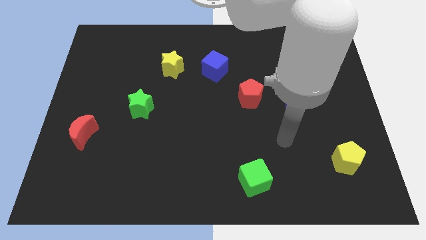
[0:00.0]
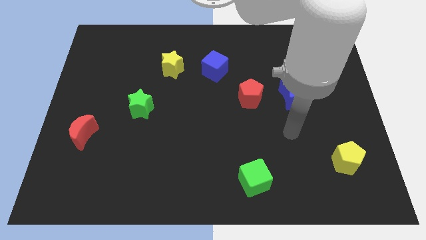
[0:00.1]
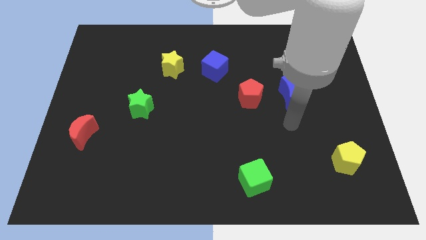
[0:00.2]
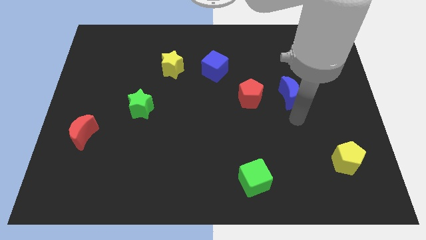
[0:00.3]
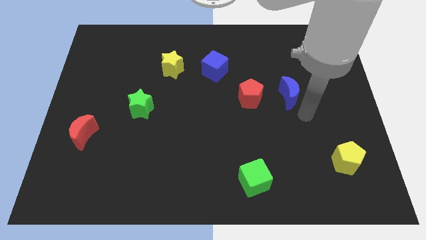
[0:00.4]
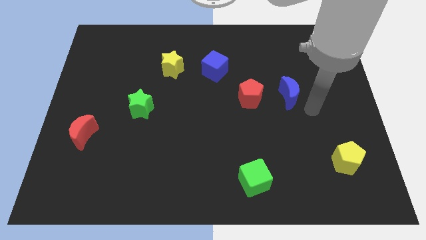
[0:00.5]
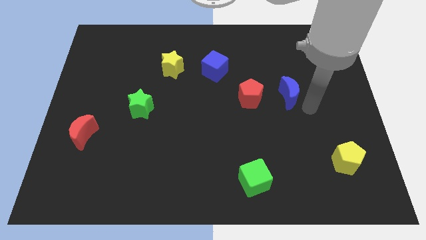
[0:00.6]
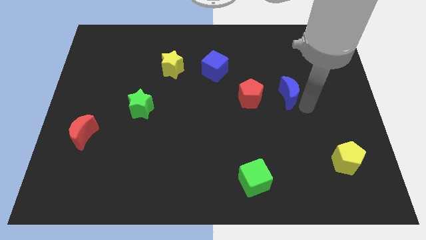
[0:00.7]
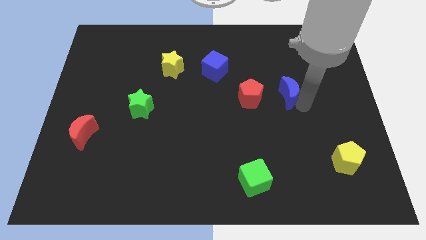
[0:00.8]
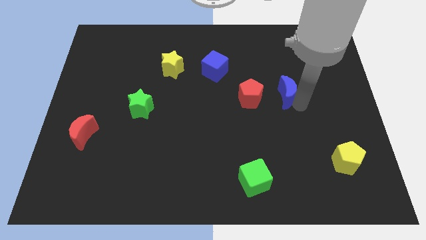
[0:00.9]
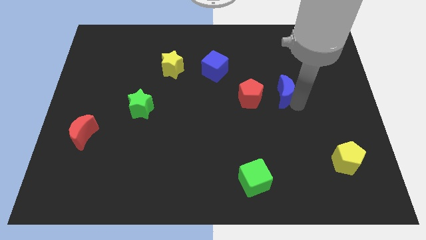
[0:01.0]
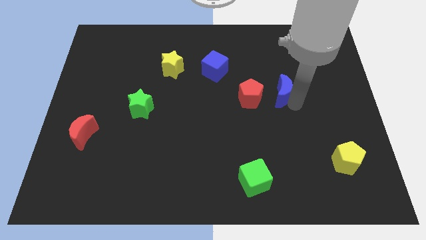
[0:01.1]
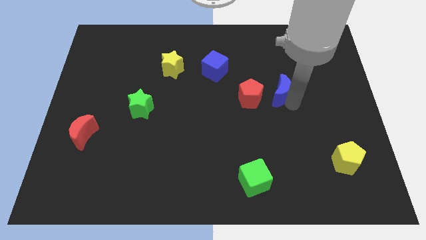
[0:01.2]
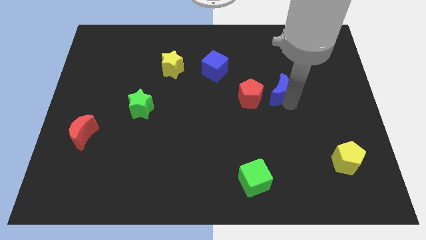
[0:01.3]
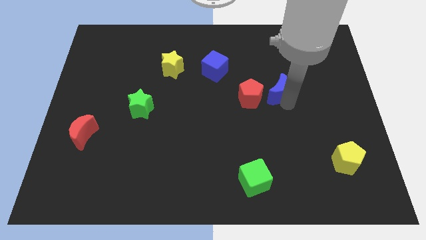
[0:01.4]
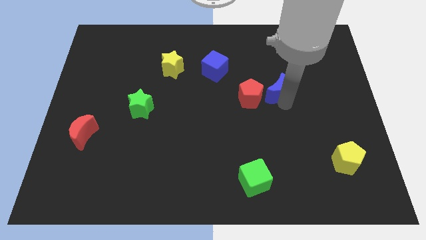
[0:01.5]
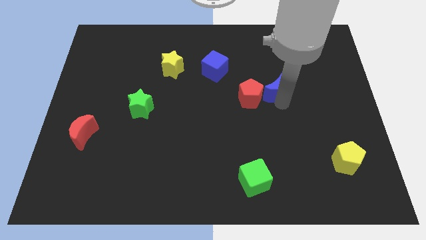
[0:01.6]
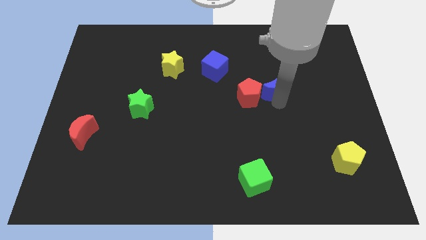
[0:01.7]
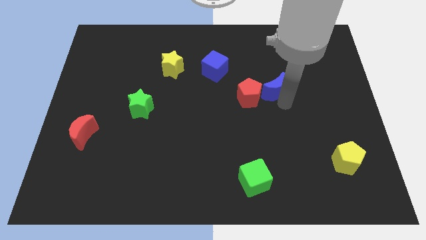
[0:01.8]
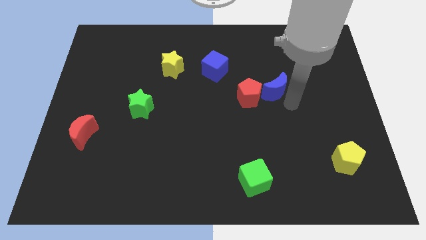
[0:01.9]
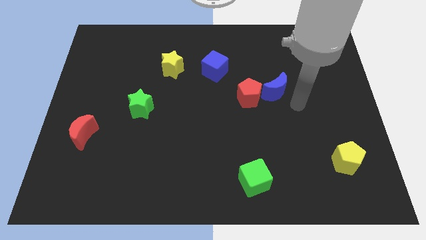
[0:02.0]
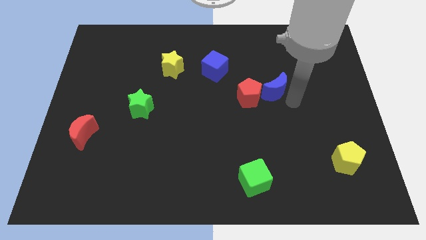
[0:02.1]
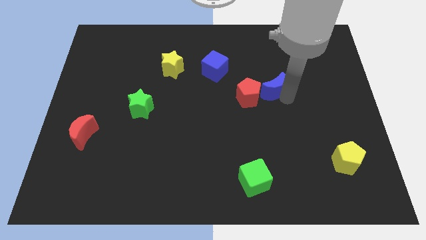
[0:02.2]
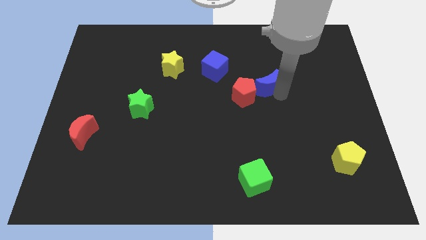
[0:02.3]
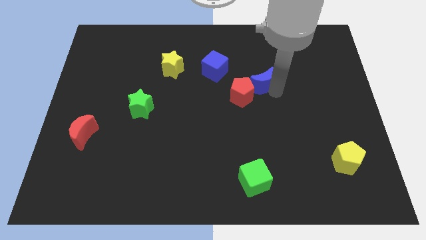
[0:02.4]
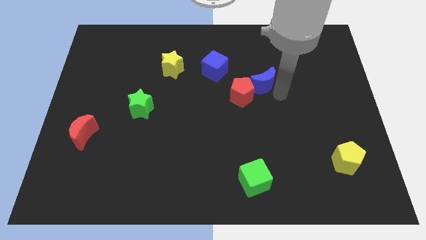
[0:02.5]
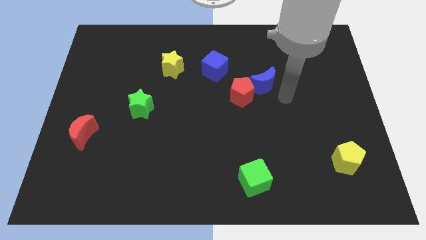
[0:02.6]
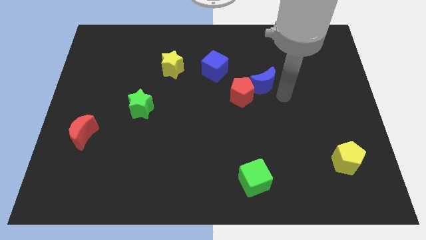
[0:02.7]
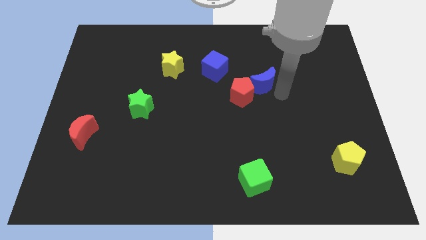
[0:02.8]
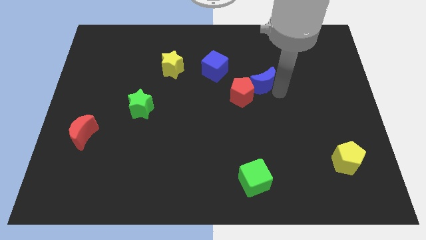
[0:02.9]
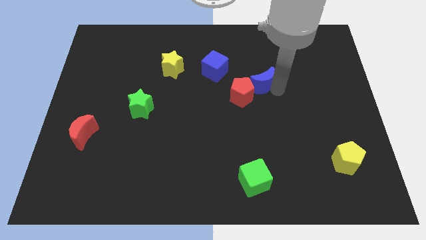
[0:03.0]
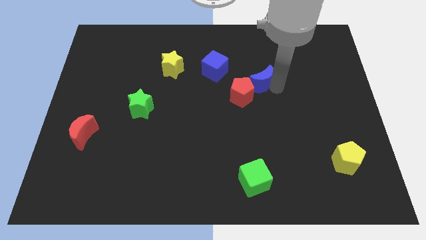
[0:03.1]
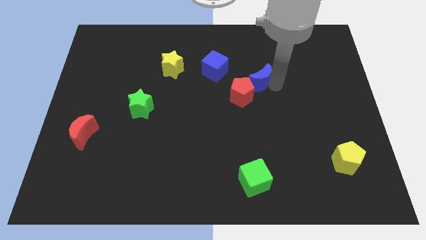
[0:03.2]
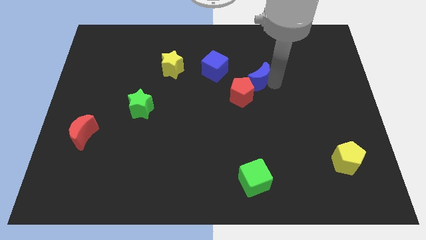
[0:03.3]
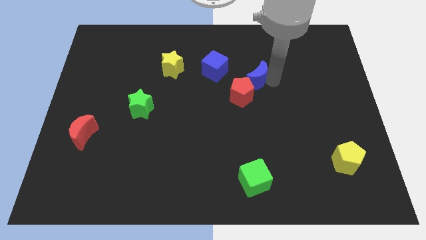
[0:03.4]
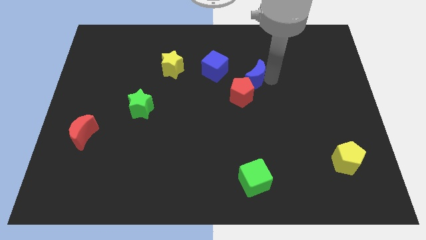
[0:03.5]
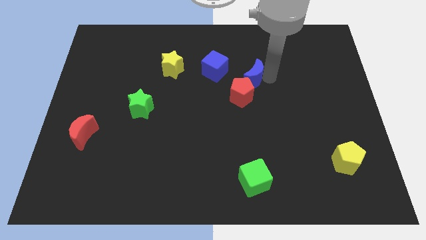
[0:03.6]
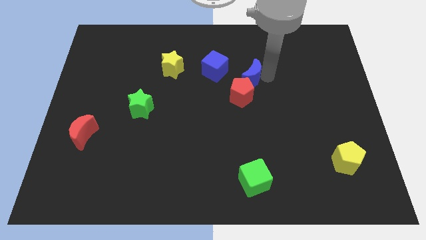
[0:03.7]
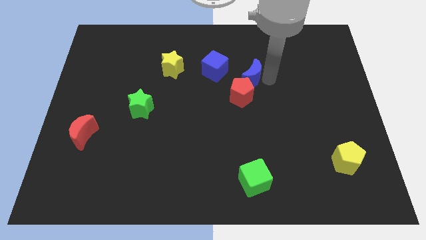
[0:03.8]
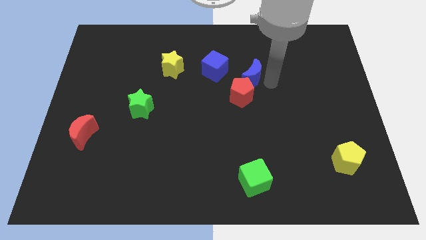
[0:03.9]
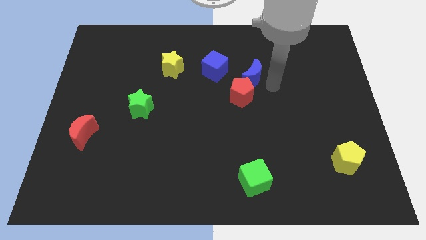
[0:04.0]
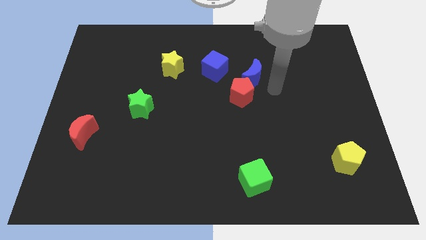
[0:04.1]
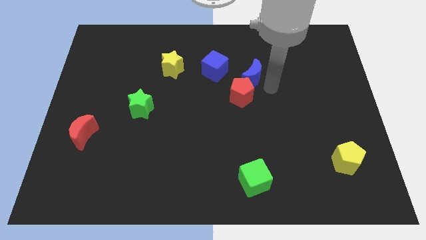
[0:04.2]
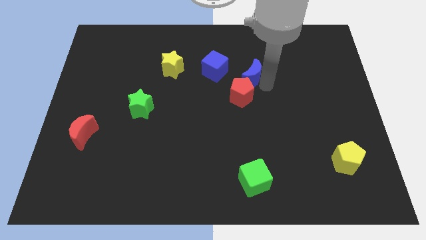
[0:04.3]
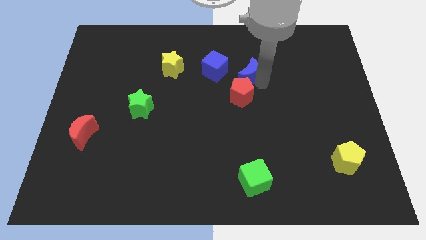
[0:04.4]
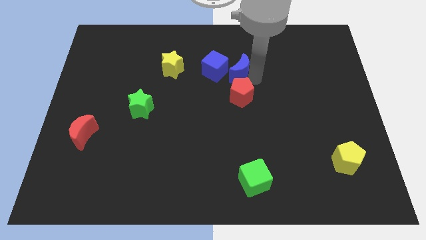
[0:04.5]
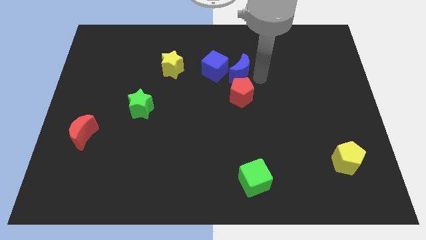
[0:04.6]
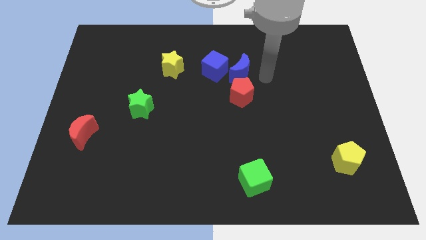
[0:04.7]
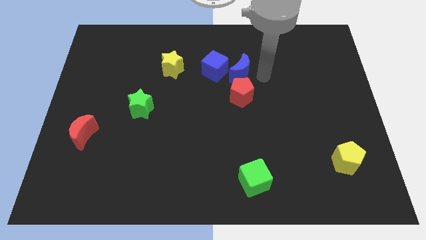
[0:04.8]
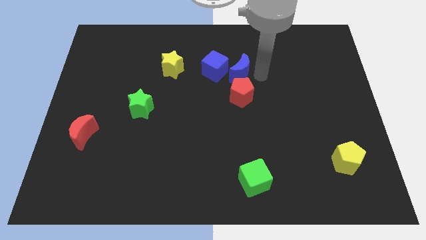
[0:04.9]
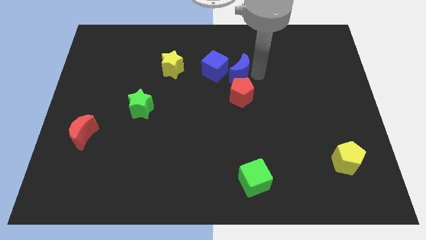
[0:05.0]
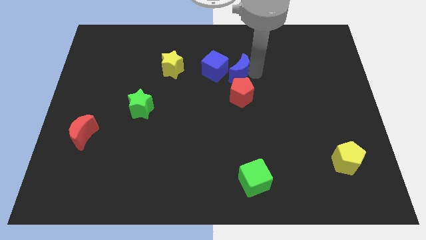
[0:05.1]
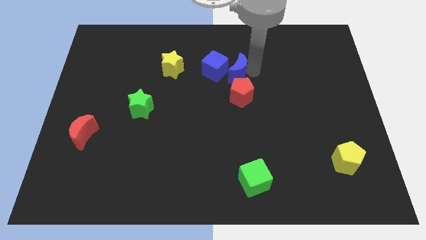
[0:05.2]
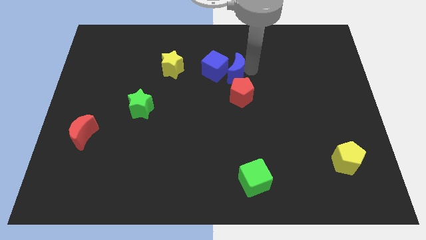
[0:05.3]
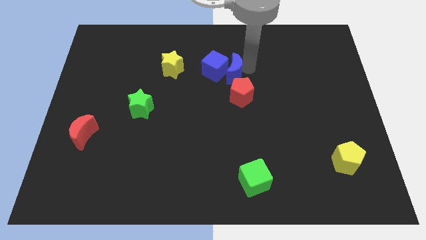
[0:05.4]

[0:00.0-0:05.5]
push the blue moon to the right side of the yellow star
